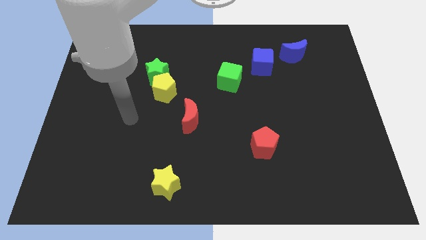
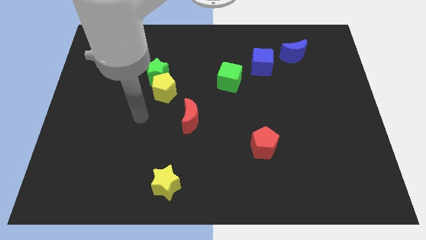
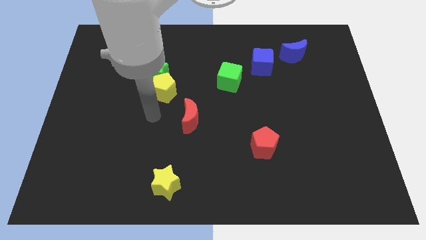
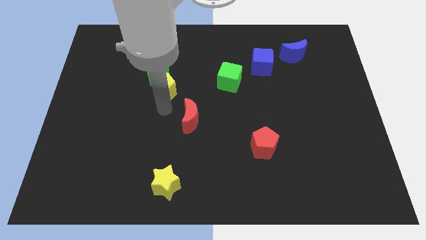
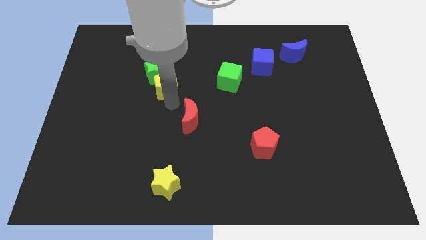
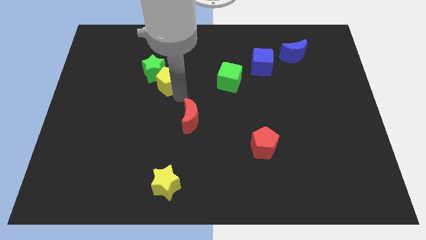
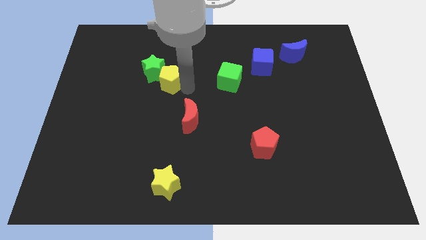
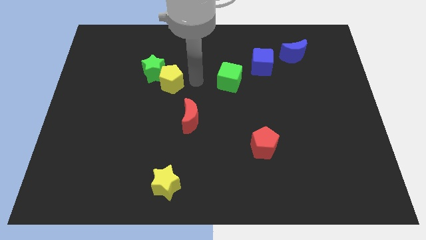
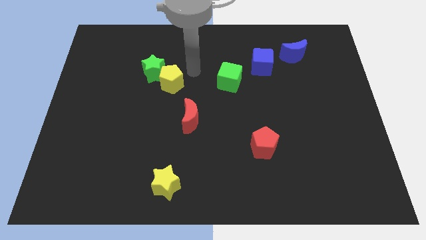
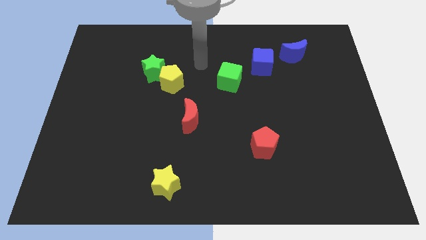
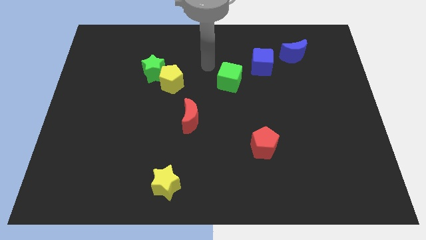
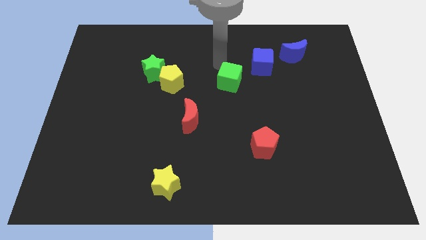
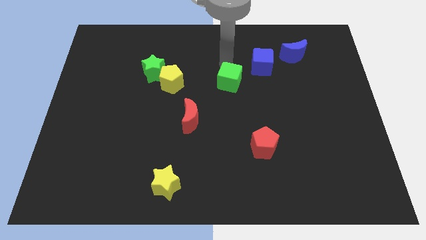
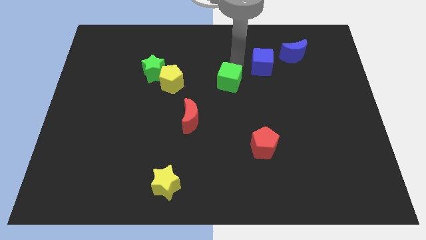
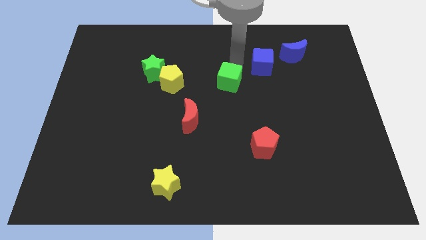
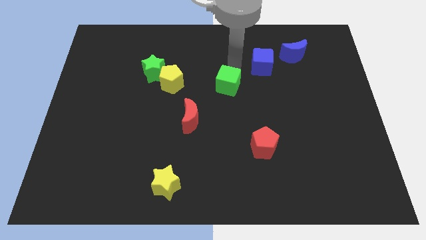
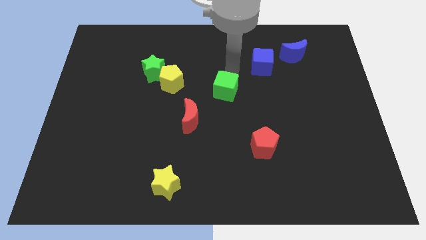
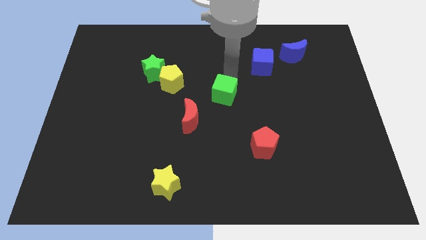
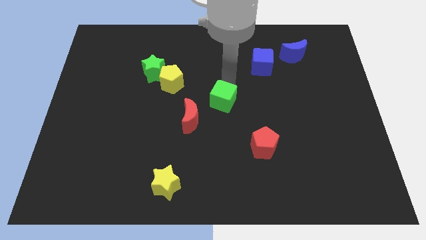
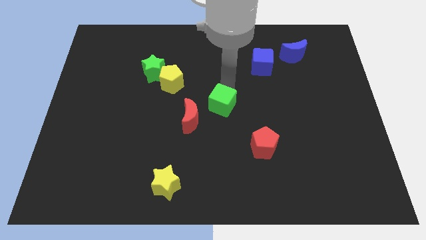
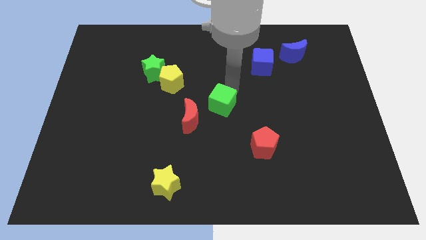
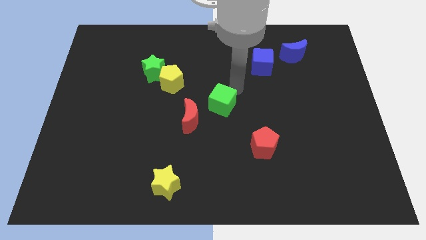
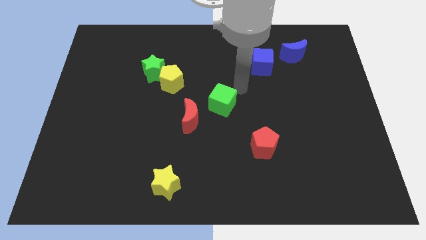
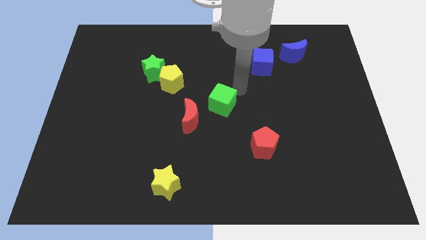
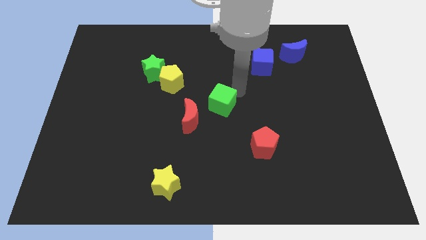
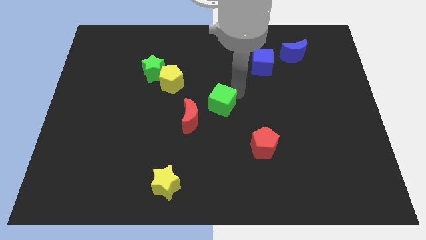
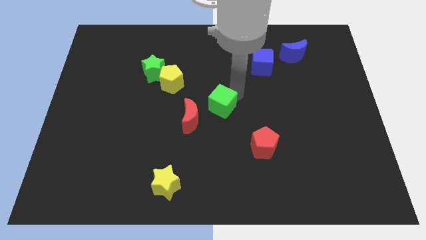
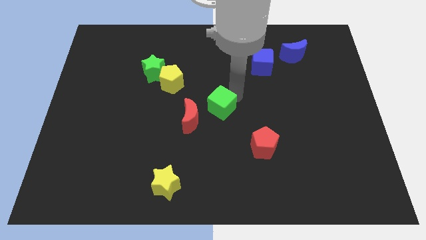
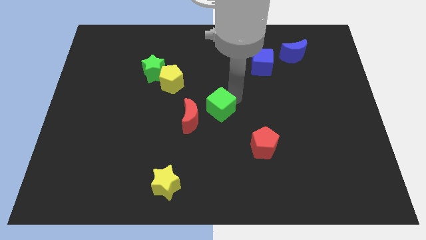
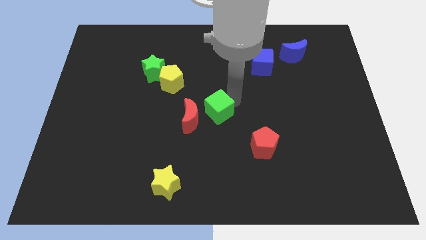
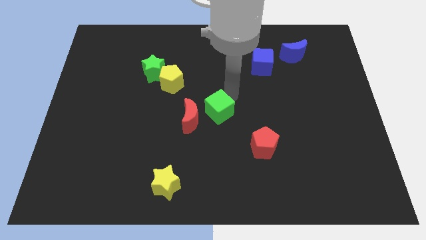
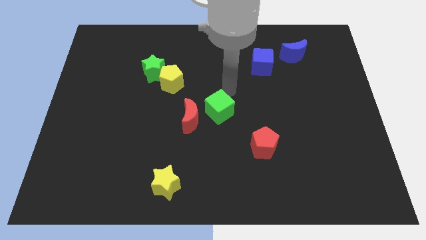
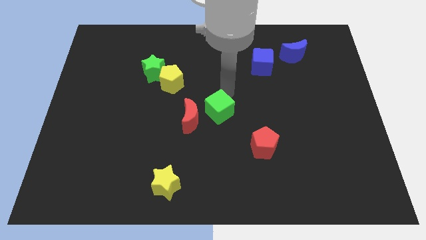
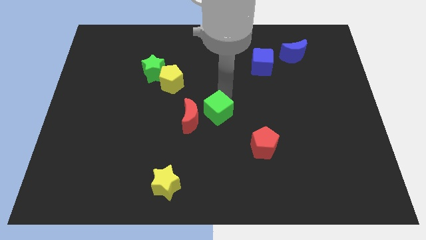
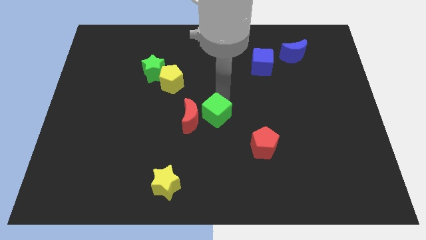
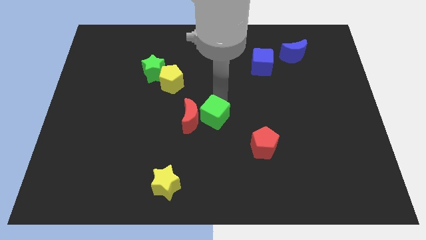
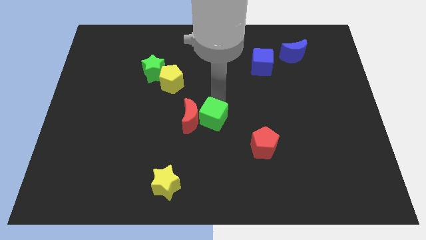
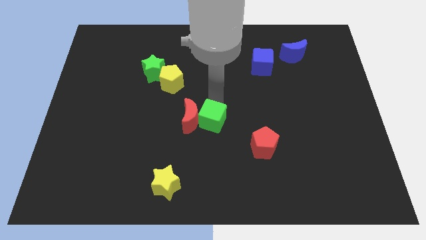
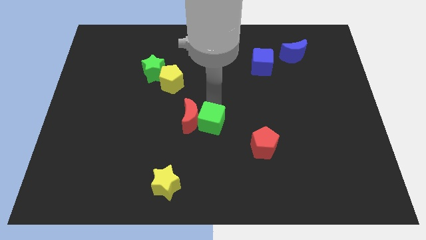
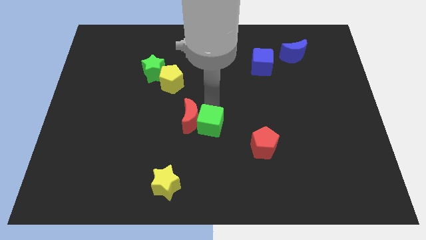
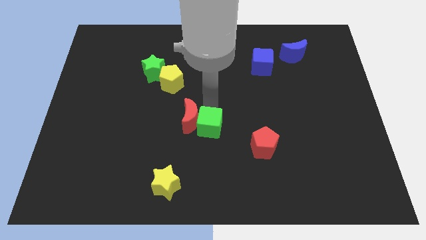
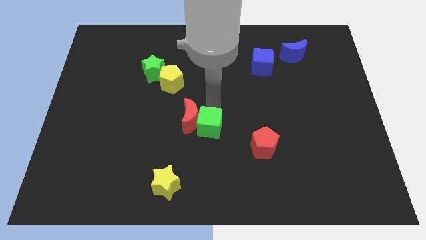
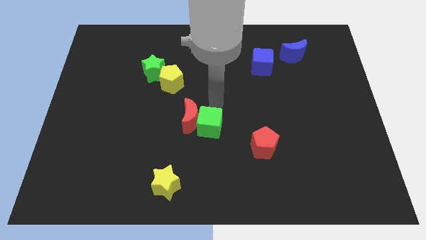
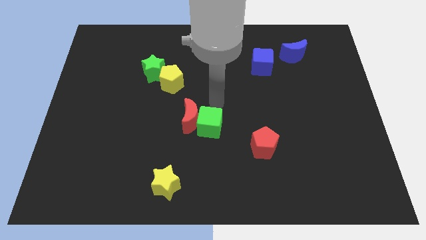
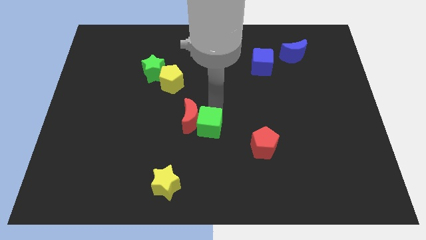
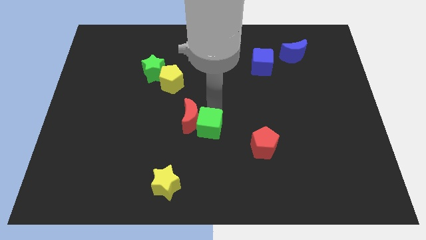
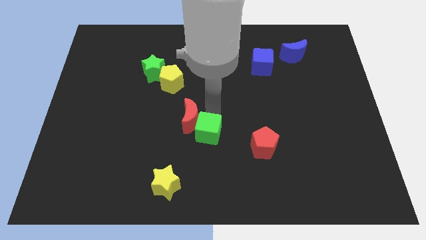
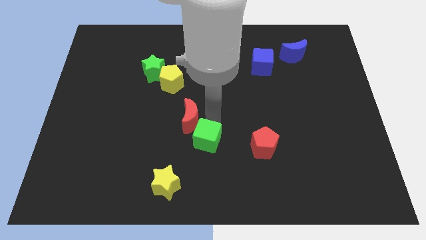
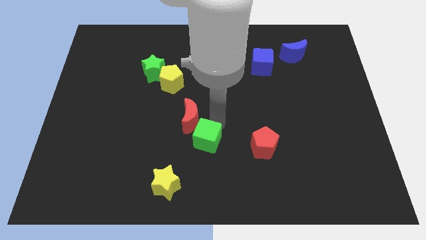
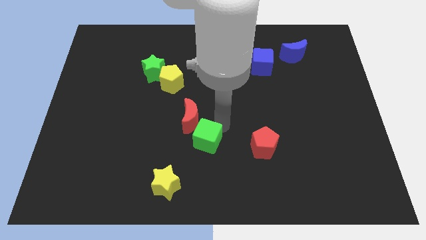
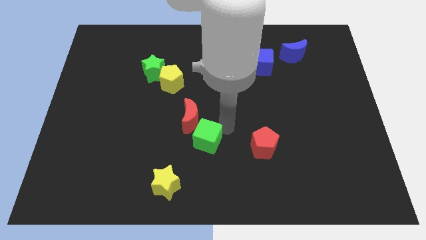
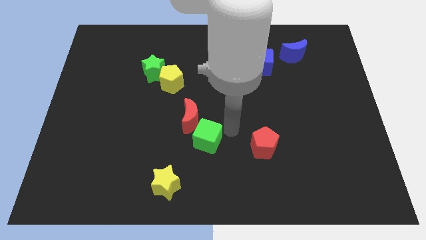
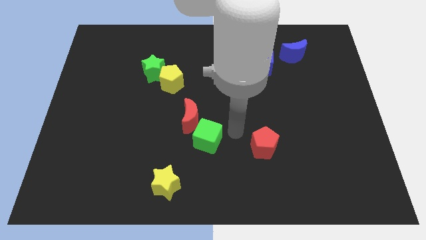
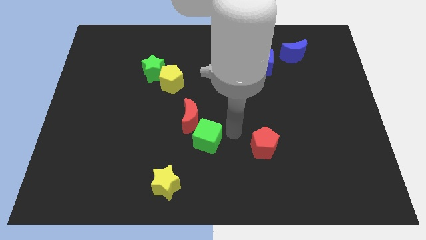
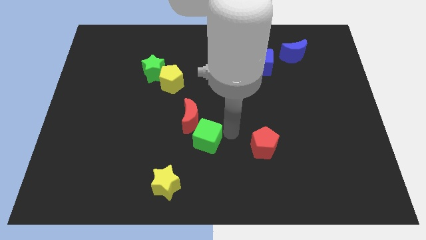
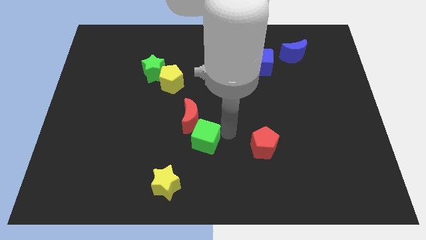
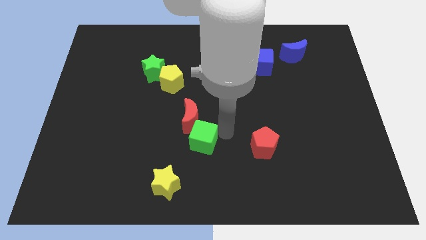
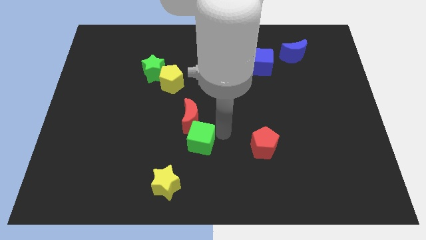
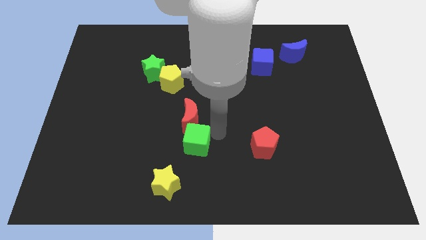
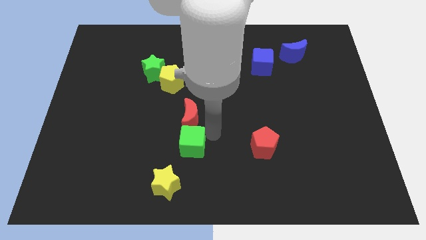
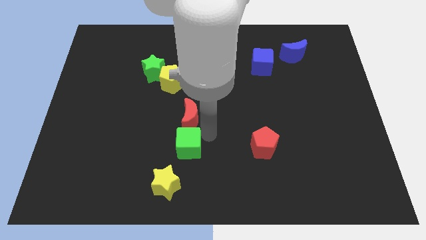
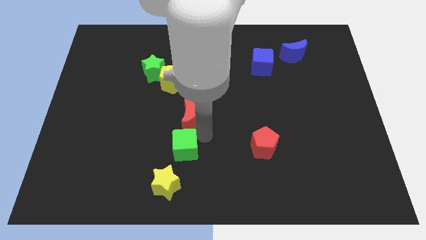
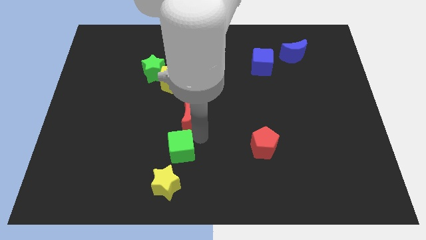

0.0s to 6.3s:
slide the green cube diagonally downwards and to the left

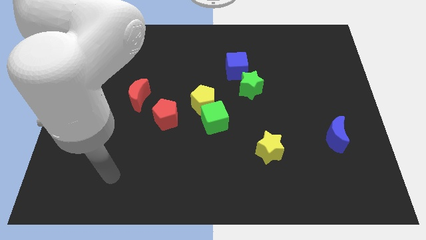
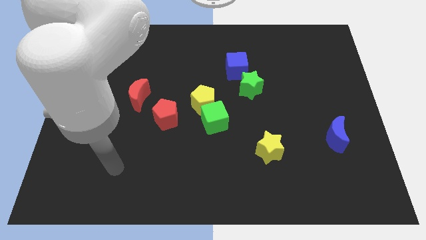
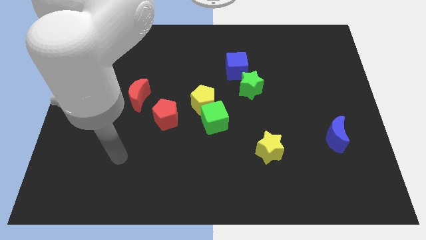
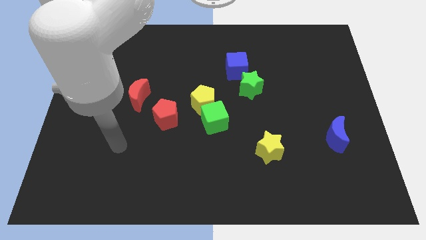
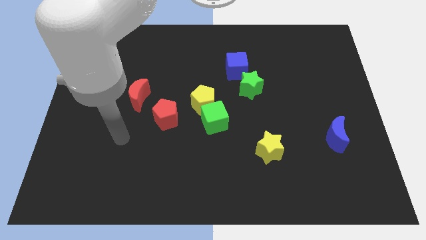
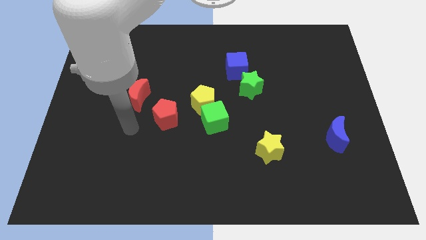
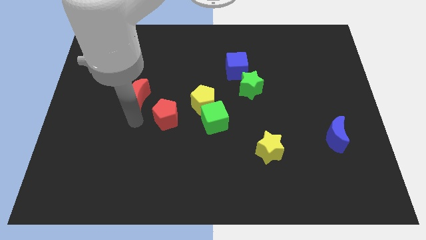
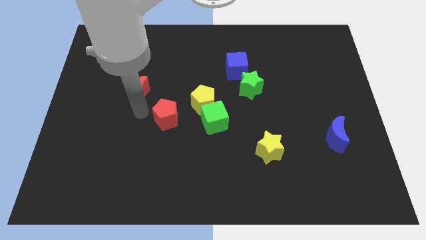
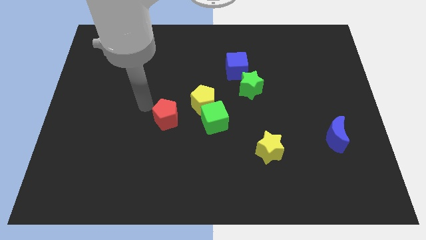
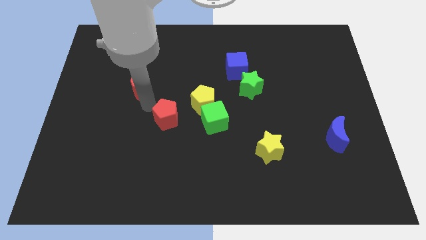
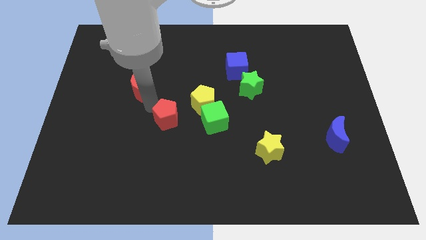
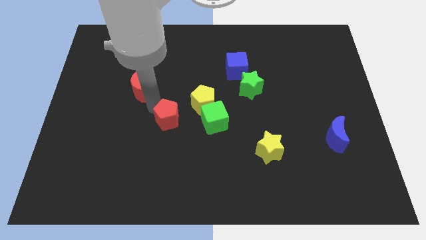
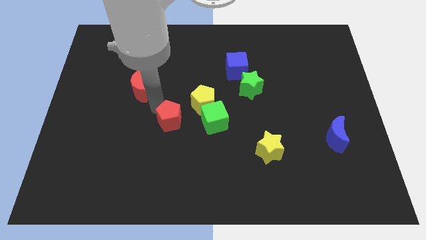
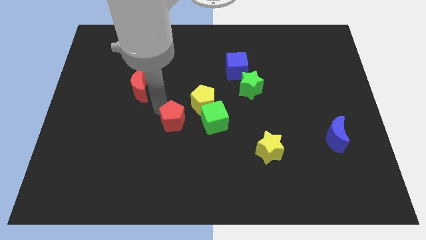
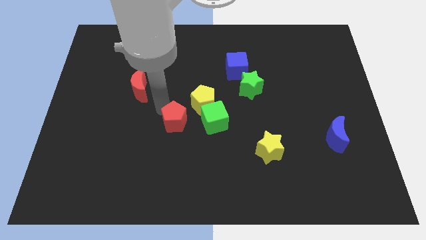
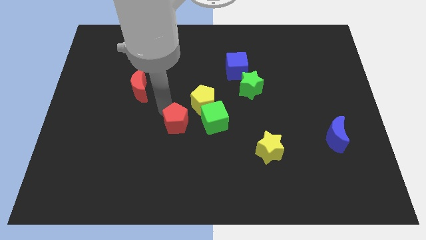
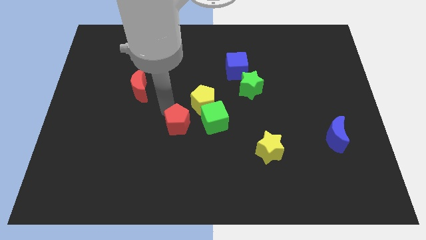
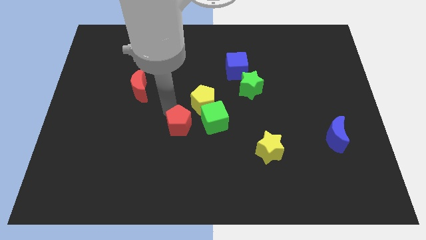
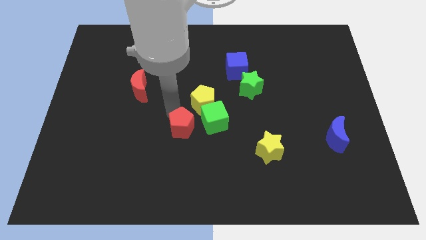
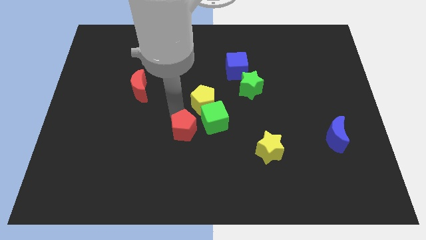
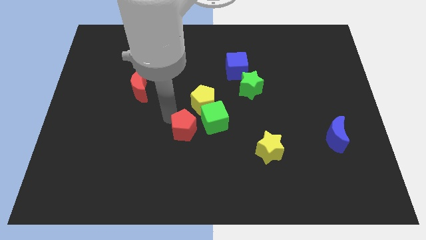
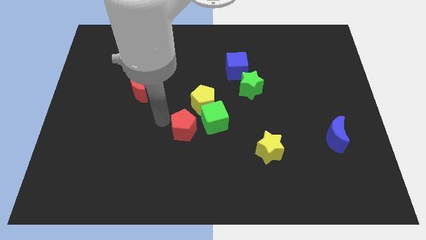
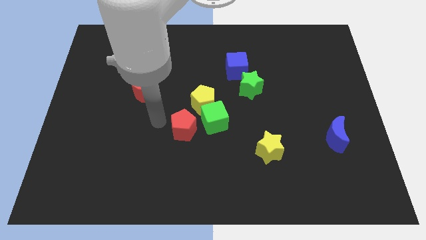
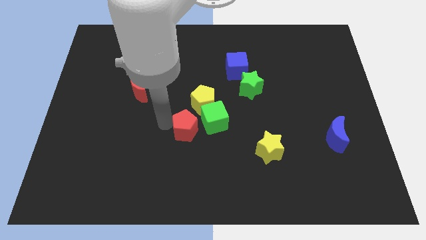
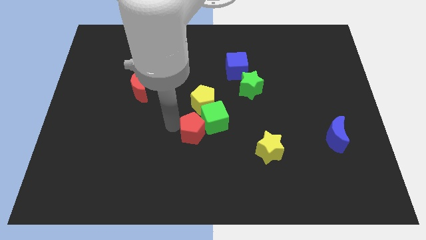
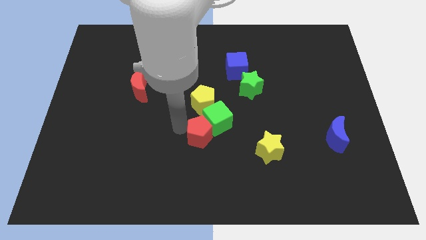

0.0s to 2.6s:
move the red pentagon right slightly
